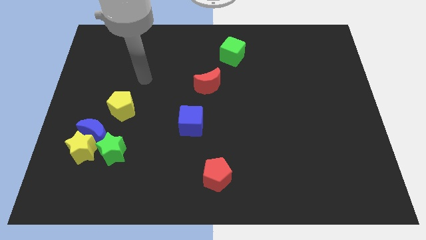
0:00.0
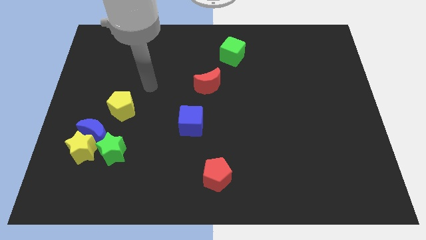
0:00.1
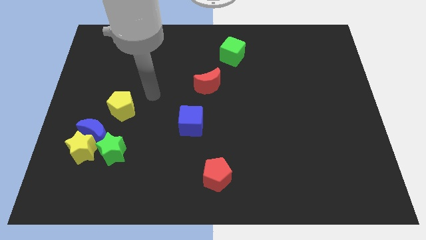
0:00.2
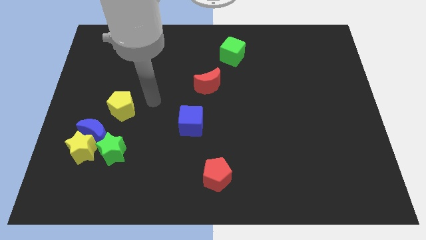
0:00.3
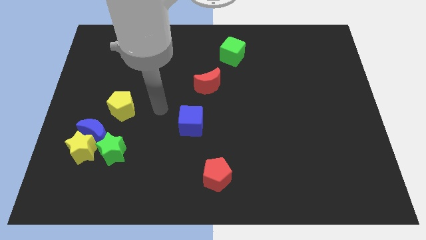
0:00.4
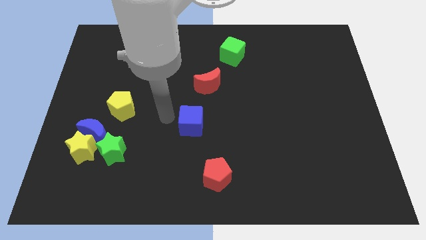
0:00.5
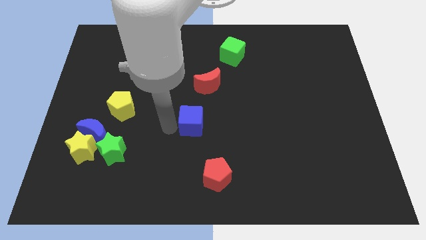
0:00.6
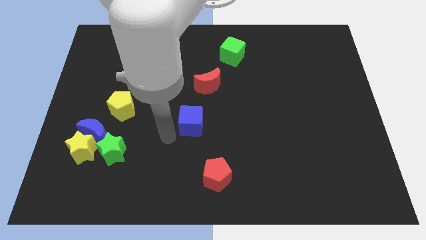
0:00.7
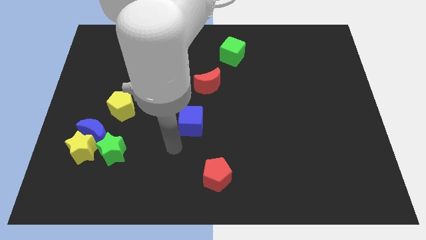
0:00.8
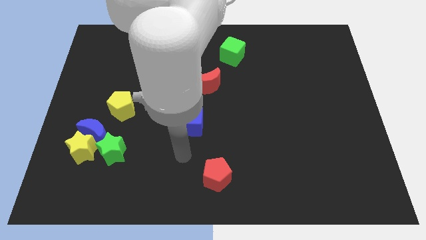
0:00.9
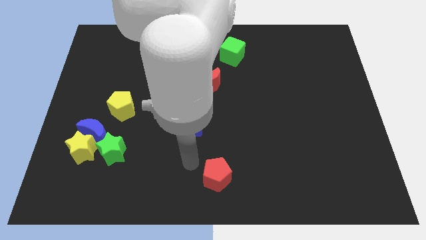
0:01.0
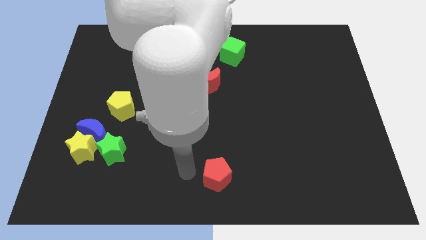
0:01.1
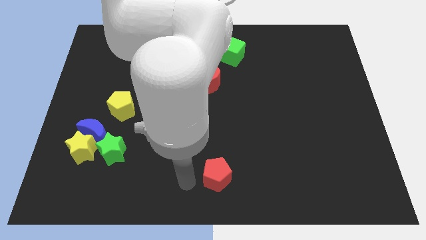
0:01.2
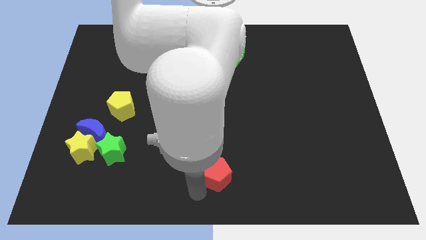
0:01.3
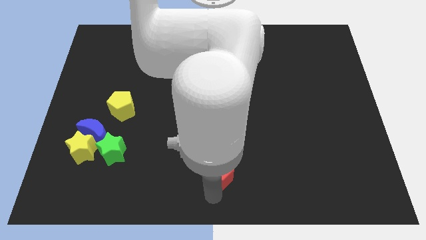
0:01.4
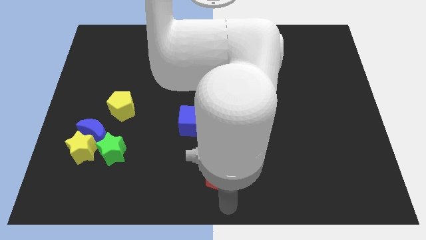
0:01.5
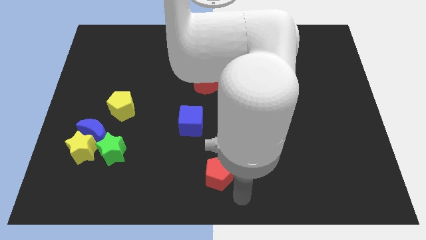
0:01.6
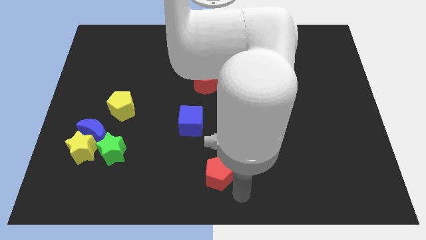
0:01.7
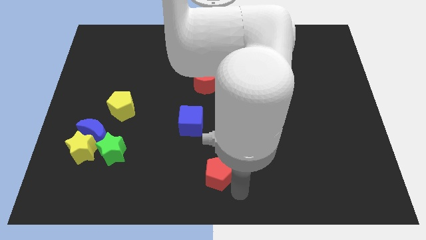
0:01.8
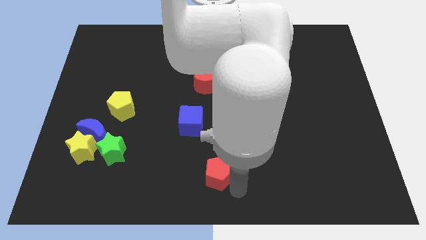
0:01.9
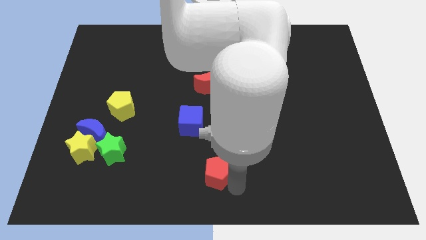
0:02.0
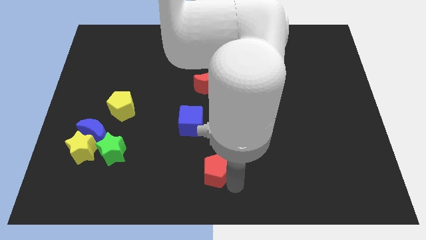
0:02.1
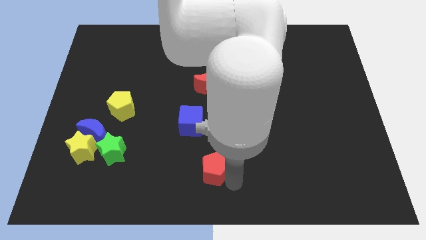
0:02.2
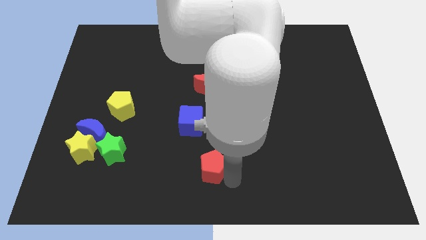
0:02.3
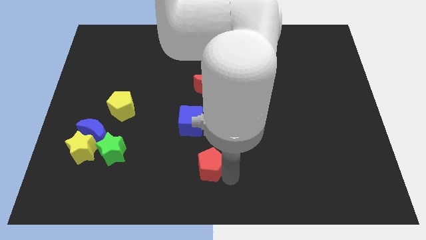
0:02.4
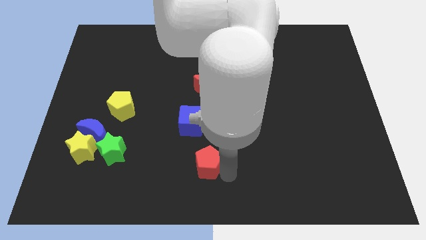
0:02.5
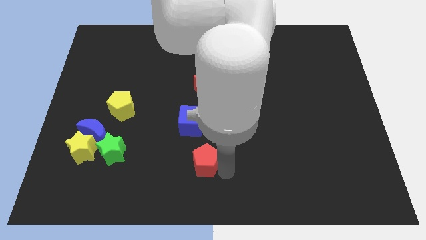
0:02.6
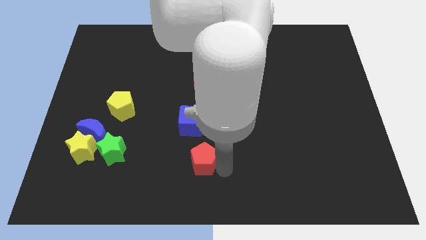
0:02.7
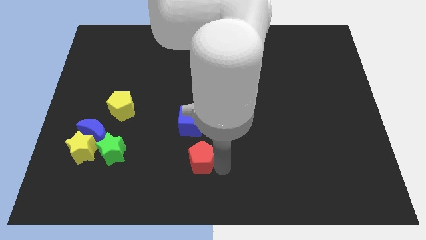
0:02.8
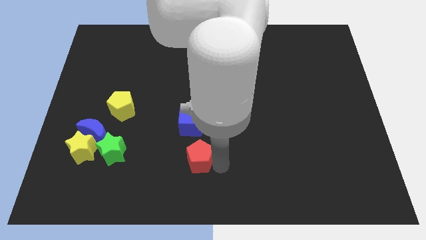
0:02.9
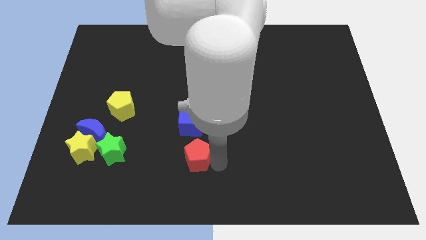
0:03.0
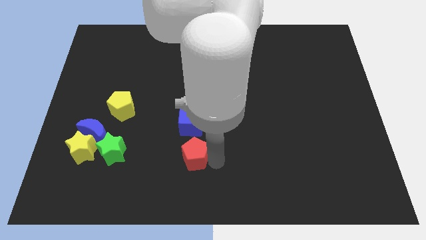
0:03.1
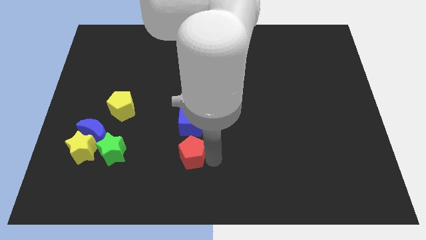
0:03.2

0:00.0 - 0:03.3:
slide the red pentagon up and to the left somewhat

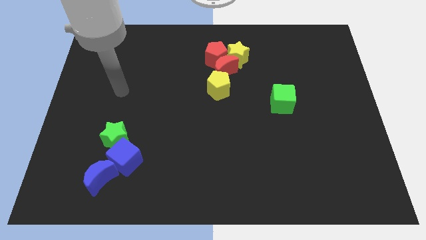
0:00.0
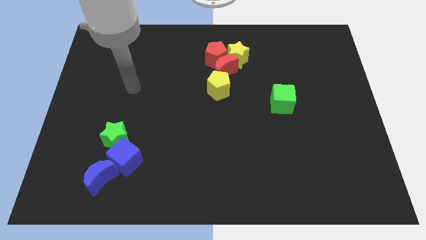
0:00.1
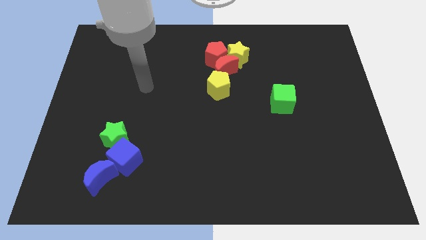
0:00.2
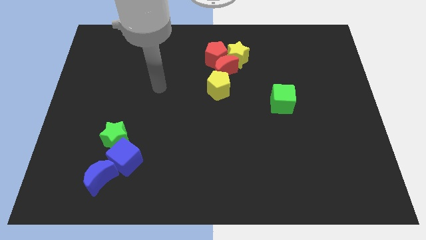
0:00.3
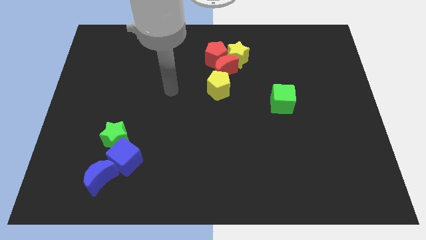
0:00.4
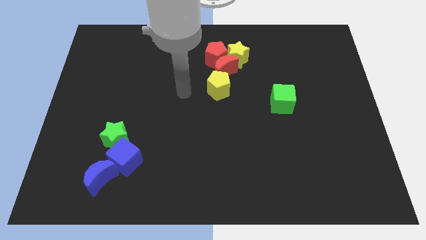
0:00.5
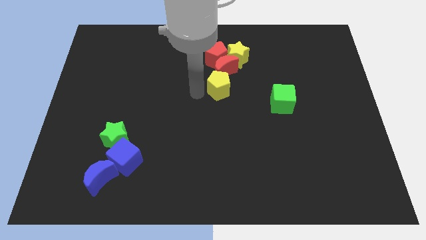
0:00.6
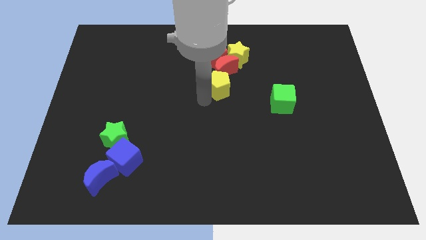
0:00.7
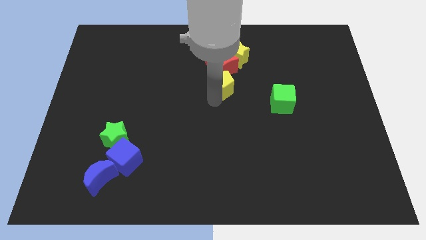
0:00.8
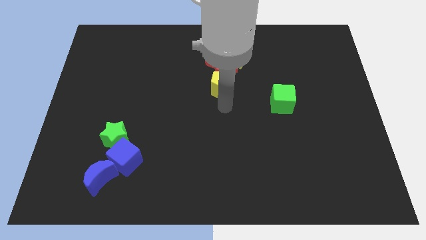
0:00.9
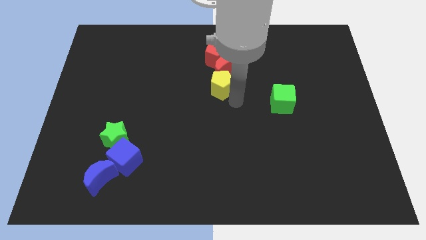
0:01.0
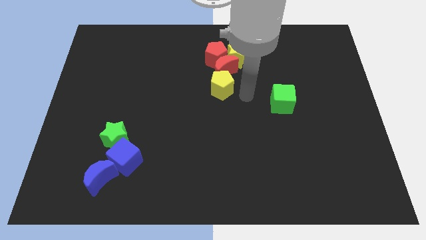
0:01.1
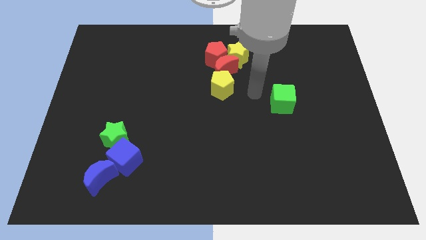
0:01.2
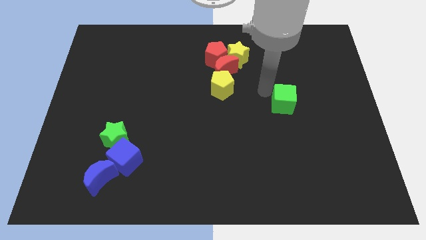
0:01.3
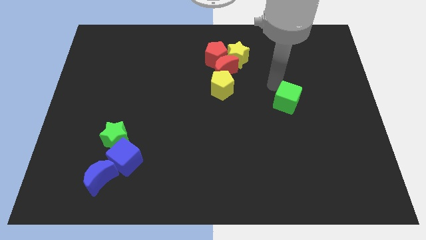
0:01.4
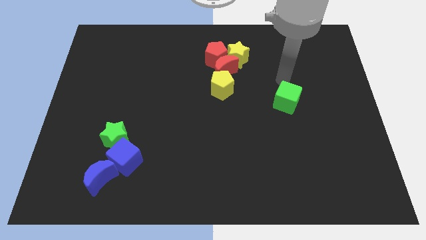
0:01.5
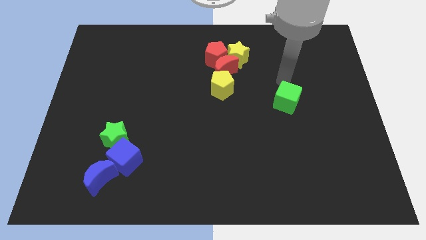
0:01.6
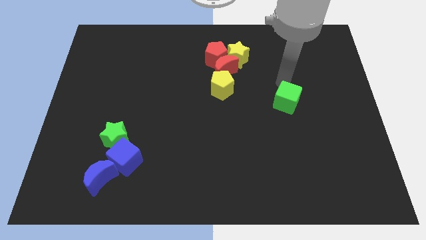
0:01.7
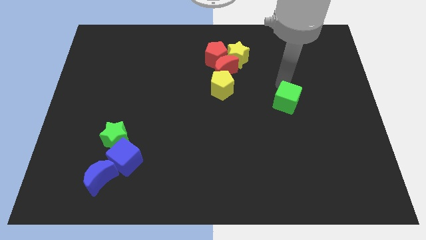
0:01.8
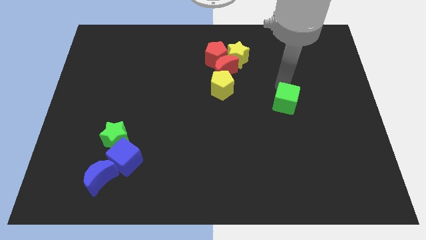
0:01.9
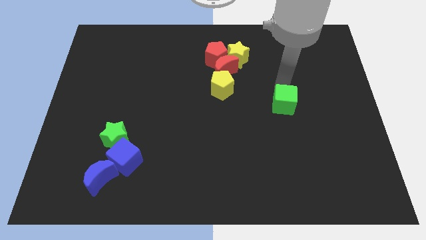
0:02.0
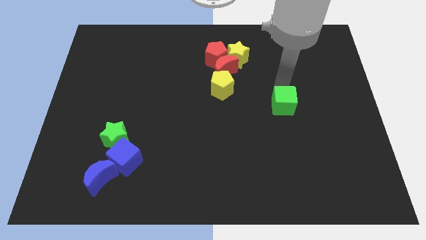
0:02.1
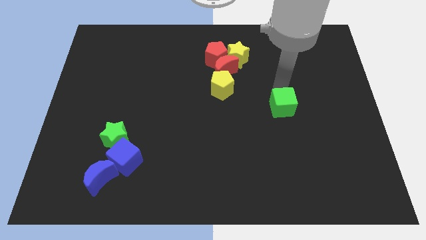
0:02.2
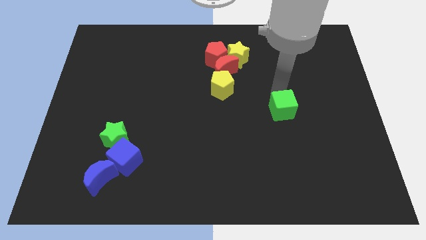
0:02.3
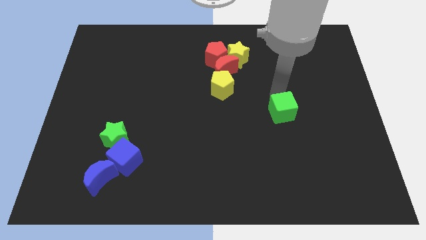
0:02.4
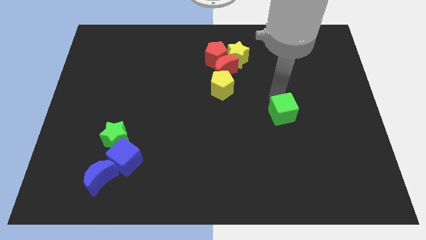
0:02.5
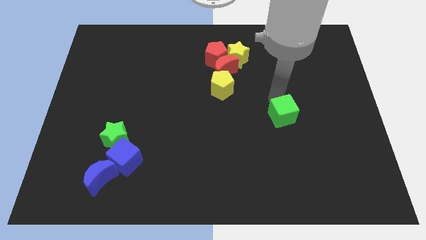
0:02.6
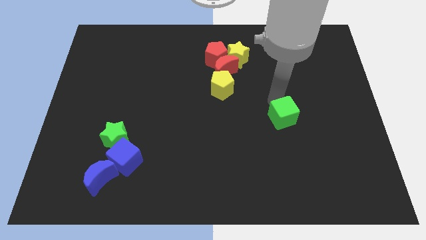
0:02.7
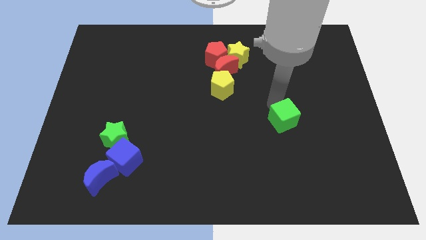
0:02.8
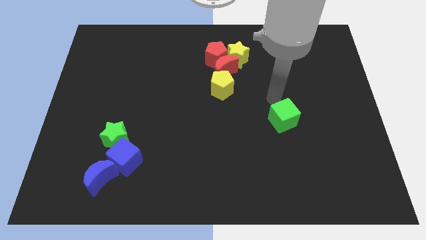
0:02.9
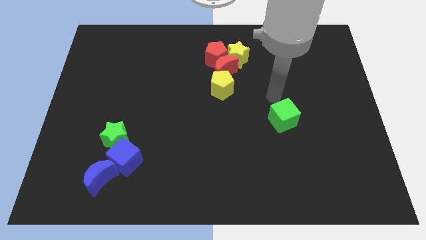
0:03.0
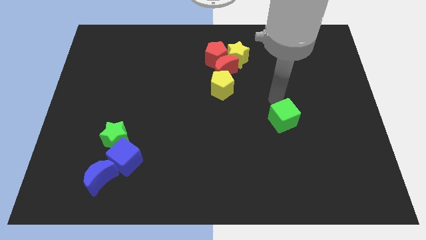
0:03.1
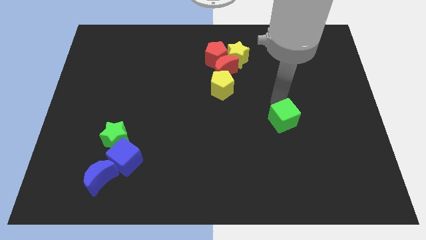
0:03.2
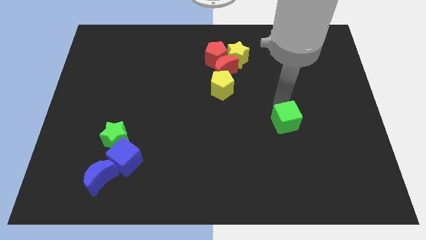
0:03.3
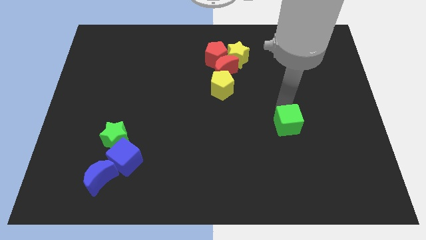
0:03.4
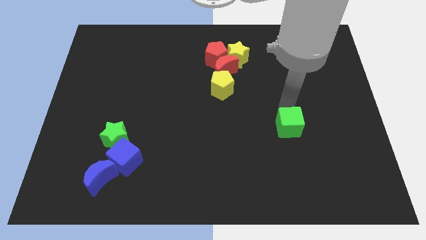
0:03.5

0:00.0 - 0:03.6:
move the green cube somewhat downwards

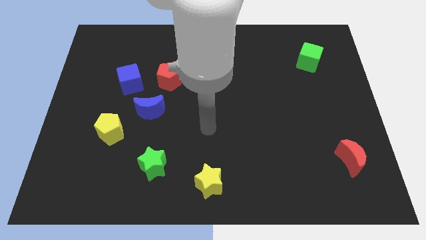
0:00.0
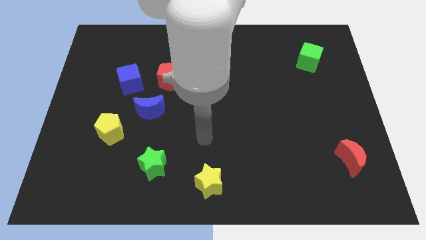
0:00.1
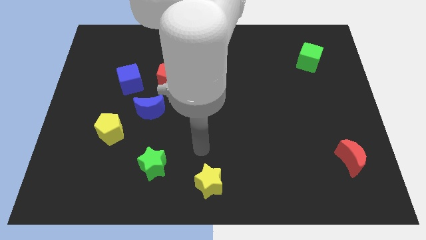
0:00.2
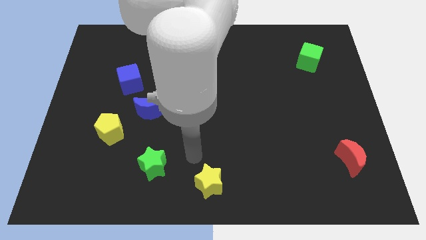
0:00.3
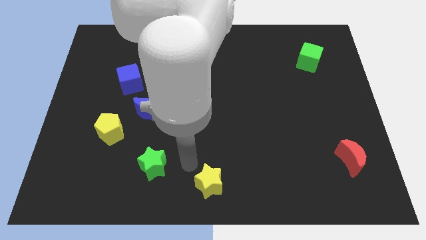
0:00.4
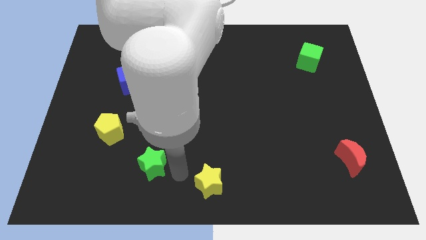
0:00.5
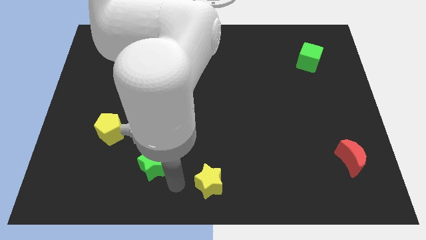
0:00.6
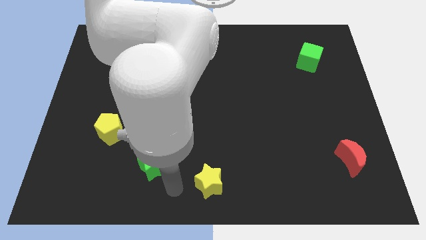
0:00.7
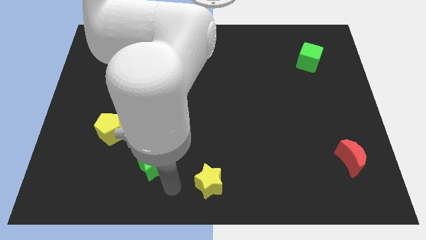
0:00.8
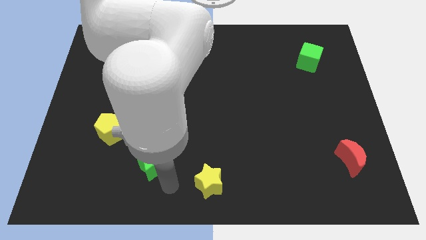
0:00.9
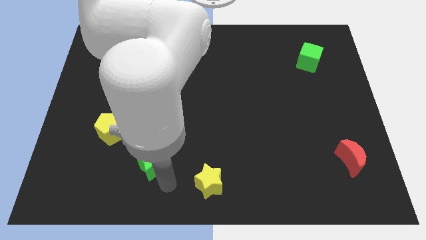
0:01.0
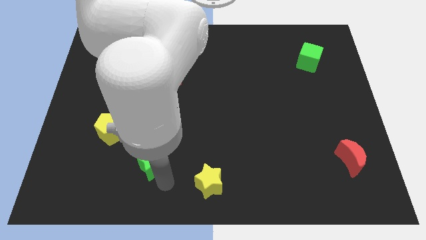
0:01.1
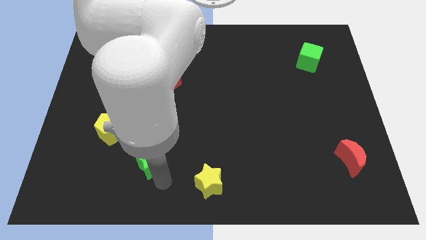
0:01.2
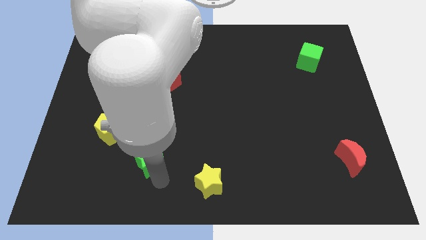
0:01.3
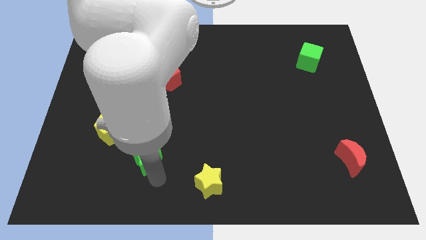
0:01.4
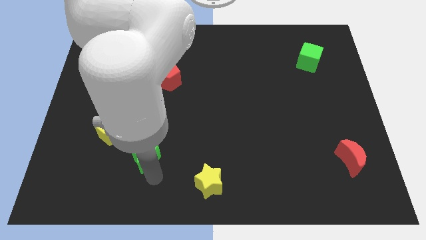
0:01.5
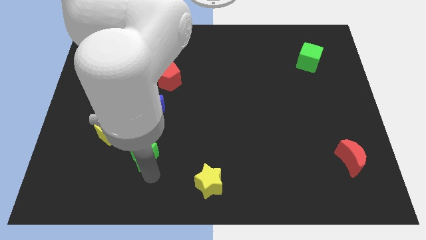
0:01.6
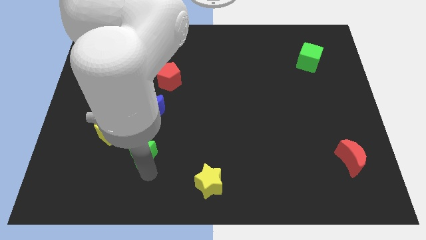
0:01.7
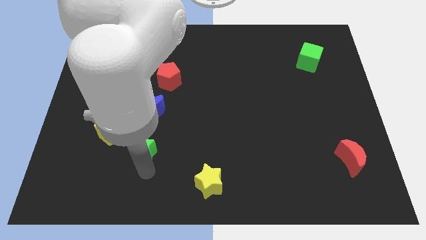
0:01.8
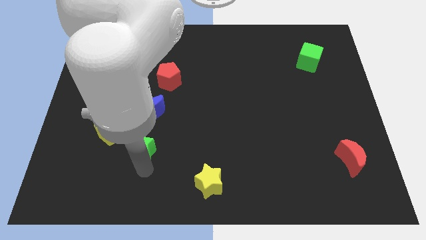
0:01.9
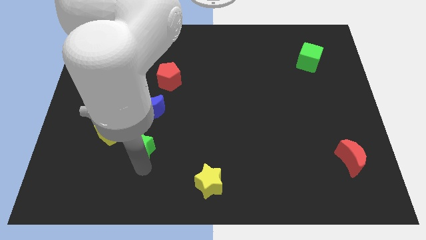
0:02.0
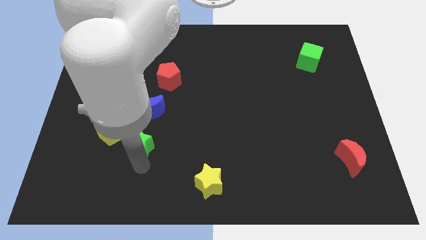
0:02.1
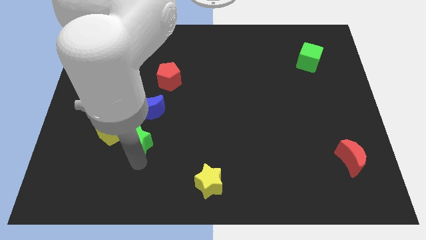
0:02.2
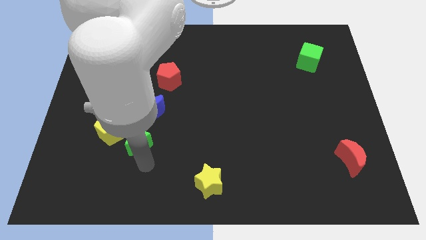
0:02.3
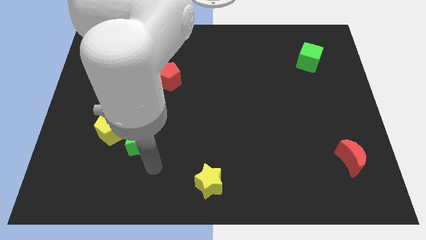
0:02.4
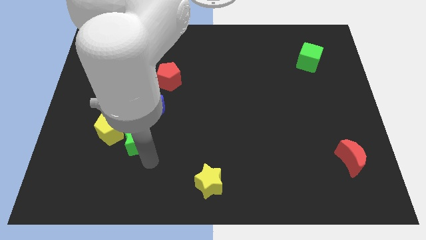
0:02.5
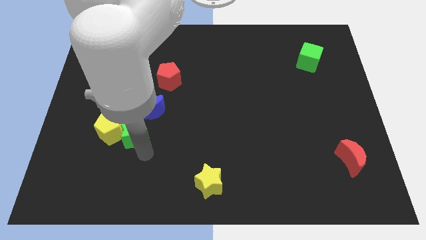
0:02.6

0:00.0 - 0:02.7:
slightly push the green star up and left
